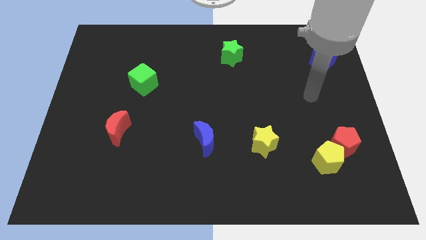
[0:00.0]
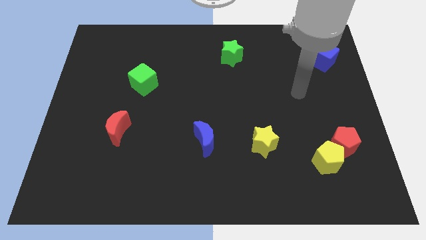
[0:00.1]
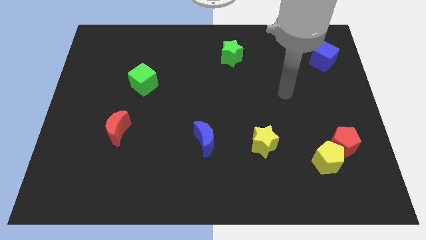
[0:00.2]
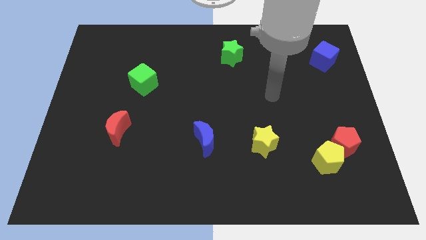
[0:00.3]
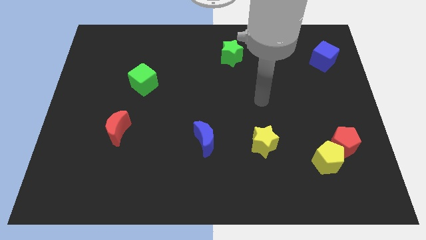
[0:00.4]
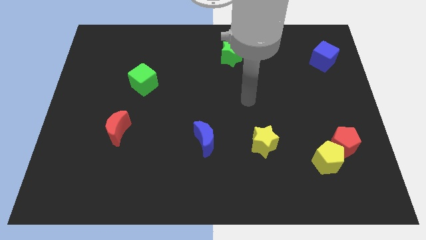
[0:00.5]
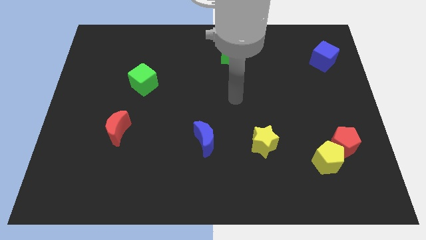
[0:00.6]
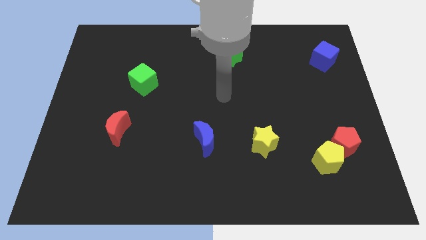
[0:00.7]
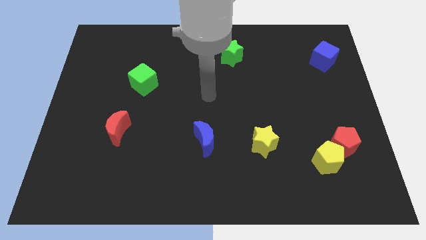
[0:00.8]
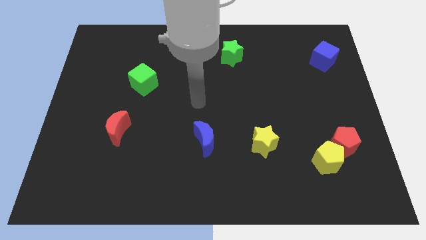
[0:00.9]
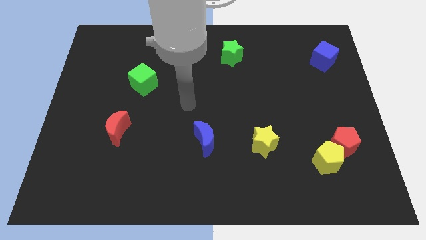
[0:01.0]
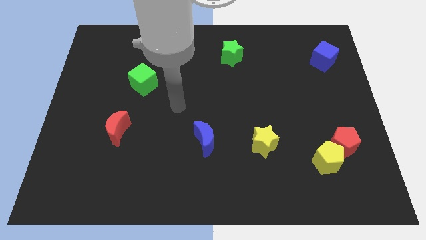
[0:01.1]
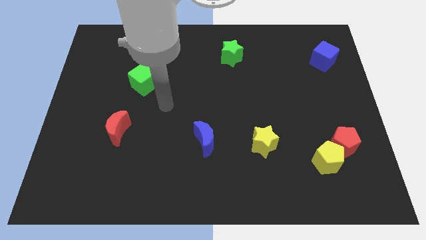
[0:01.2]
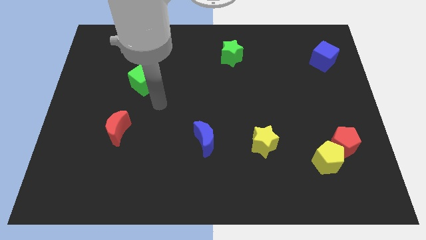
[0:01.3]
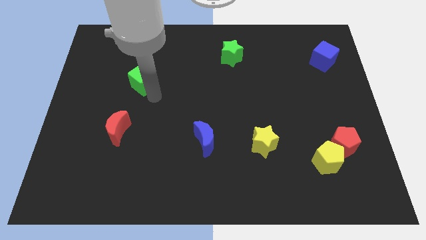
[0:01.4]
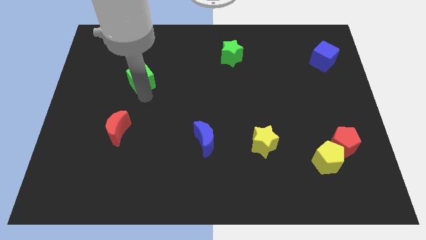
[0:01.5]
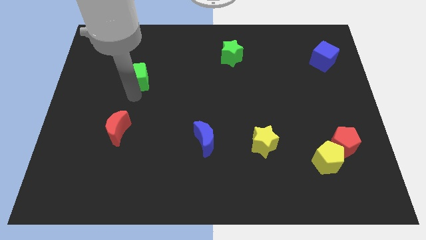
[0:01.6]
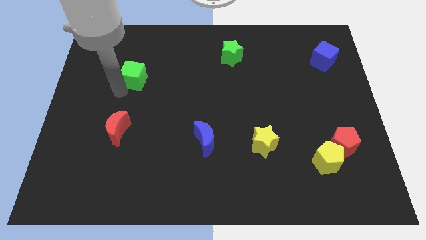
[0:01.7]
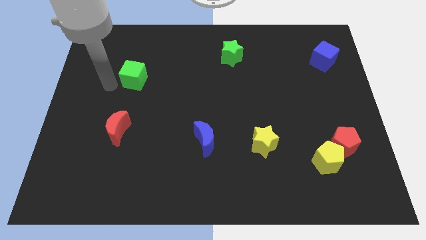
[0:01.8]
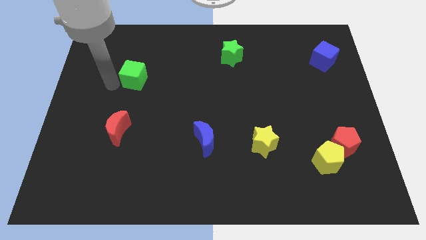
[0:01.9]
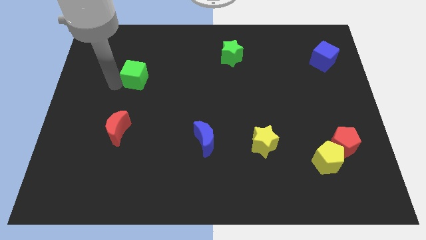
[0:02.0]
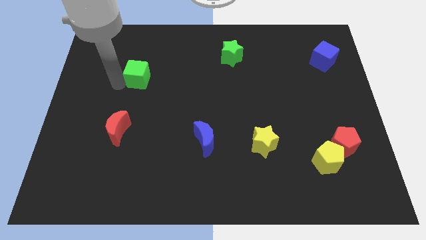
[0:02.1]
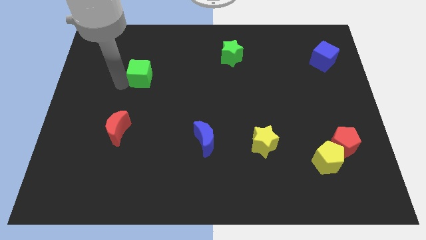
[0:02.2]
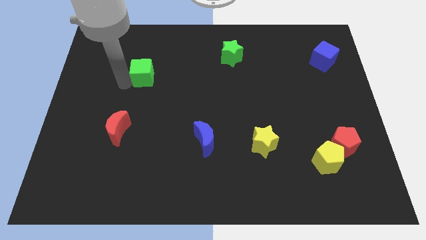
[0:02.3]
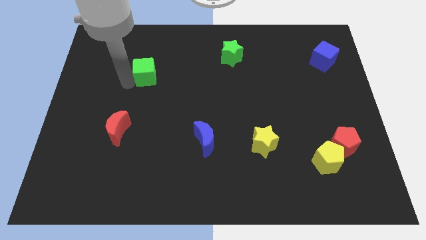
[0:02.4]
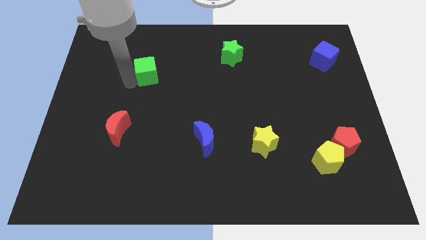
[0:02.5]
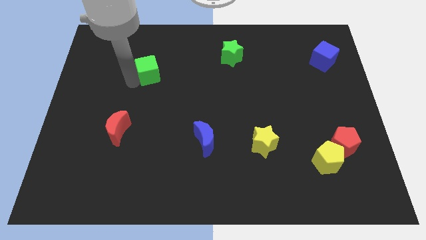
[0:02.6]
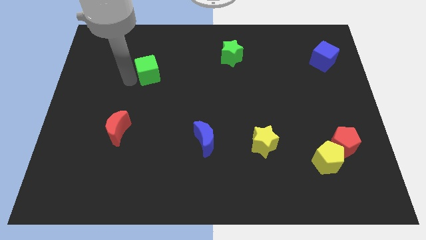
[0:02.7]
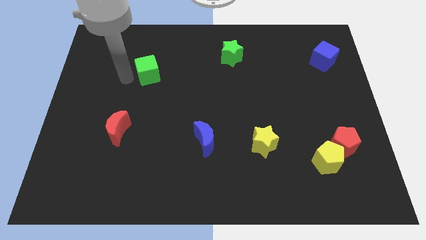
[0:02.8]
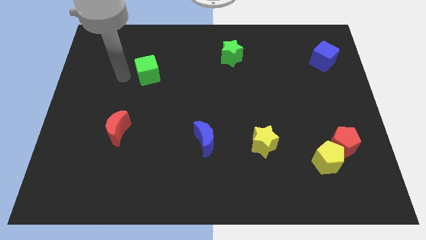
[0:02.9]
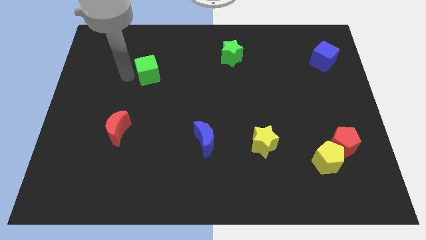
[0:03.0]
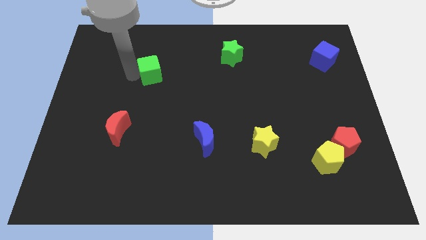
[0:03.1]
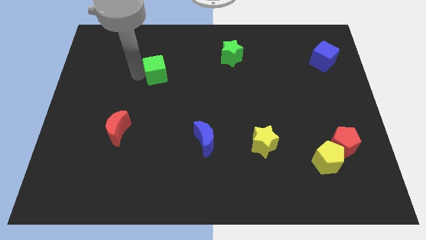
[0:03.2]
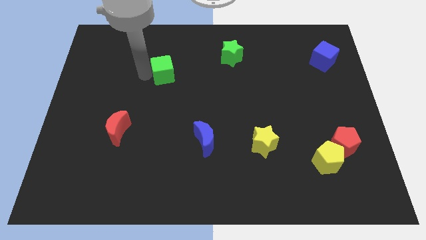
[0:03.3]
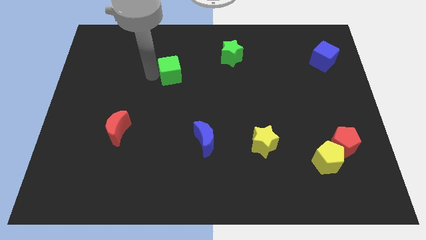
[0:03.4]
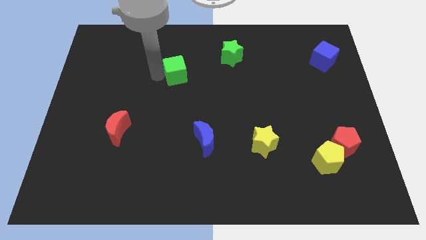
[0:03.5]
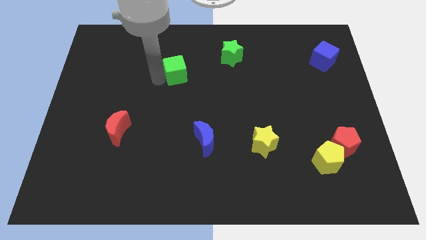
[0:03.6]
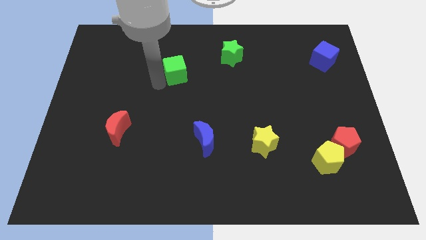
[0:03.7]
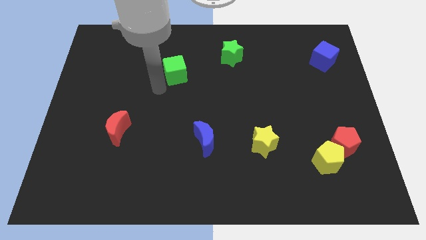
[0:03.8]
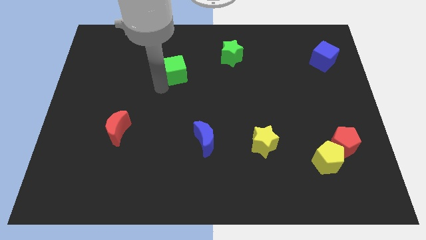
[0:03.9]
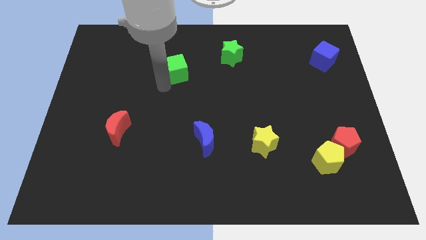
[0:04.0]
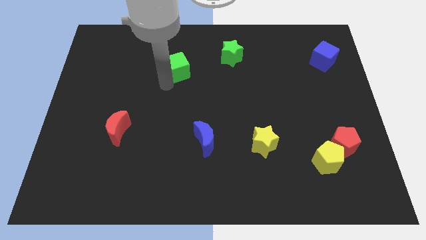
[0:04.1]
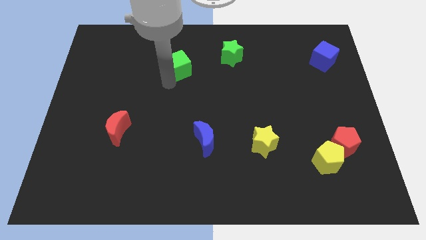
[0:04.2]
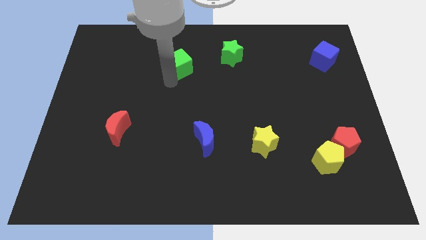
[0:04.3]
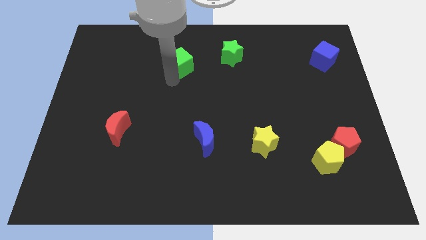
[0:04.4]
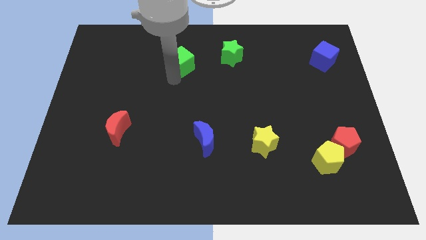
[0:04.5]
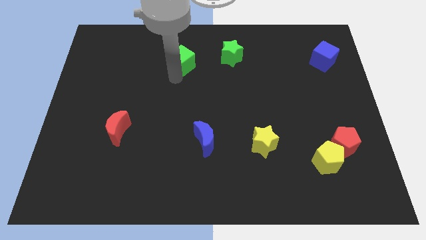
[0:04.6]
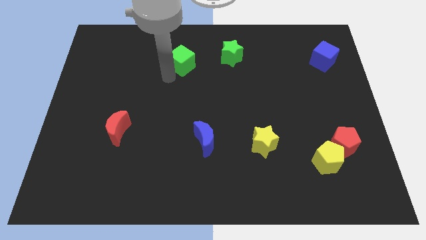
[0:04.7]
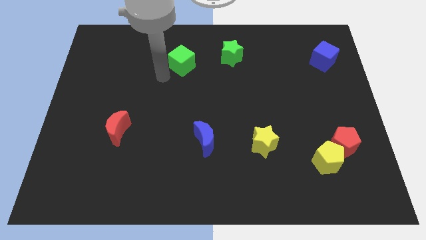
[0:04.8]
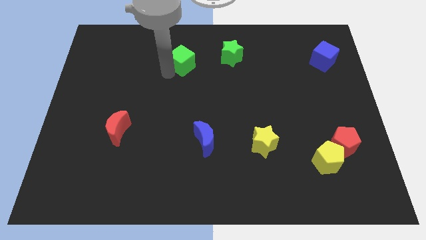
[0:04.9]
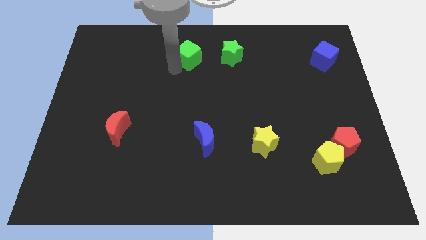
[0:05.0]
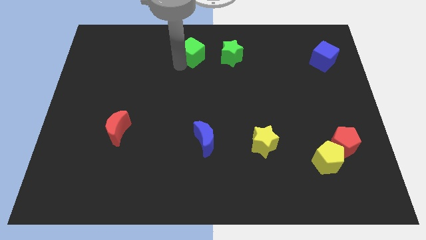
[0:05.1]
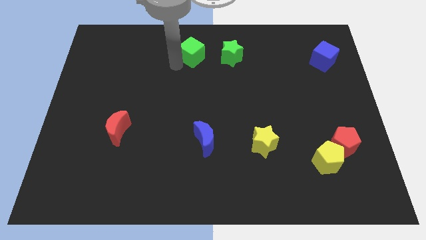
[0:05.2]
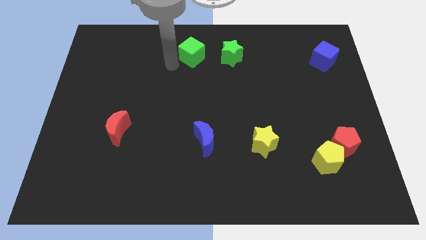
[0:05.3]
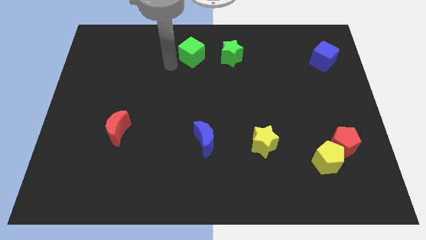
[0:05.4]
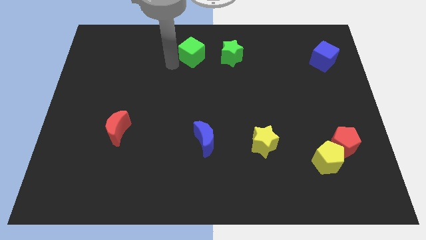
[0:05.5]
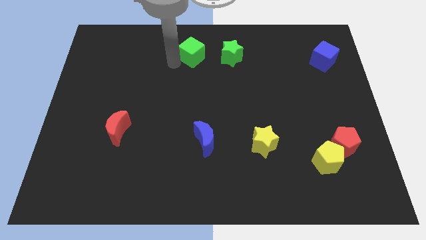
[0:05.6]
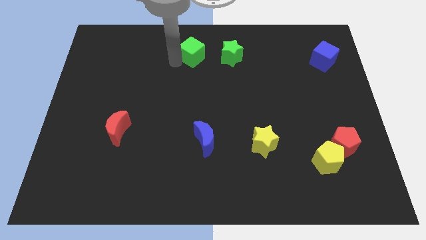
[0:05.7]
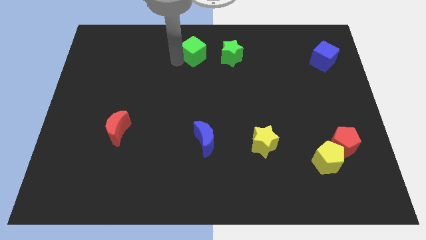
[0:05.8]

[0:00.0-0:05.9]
move the green cube to the top

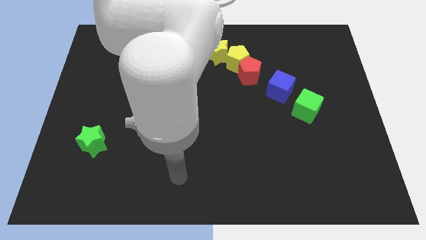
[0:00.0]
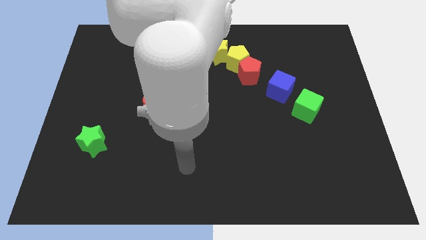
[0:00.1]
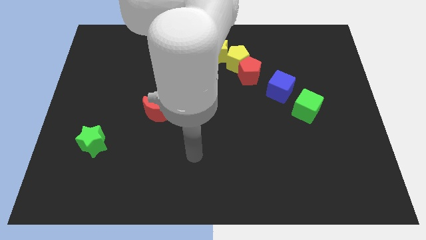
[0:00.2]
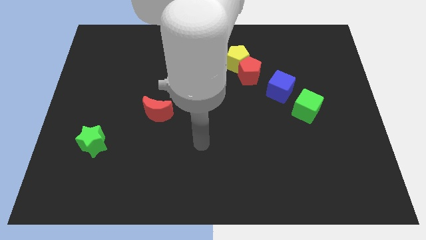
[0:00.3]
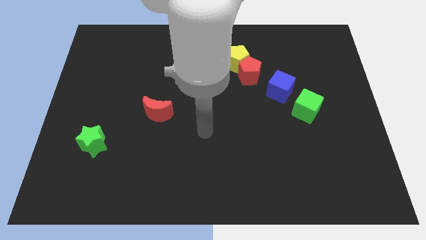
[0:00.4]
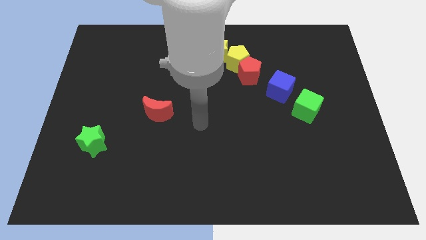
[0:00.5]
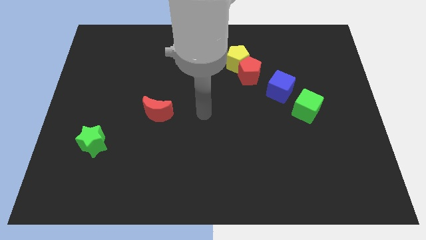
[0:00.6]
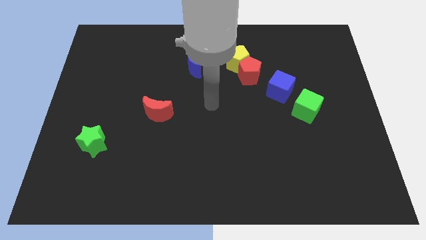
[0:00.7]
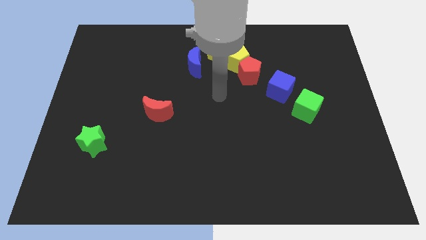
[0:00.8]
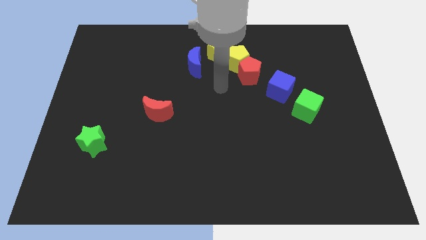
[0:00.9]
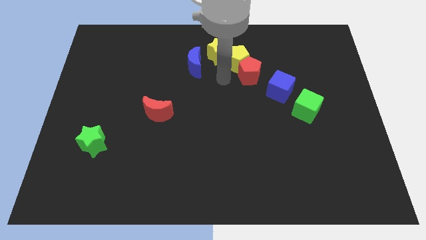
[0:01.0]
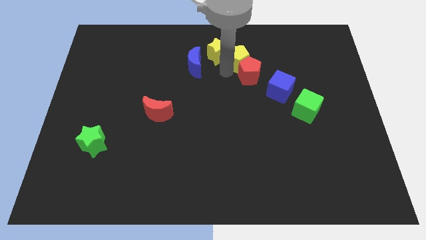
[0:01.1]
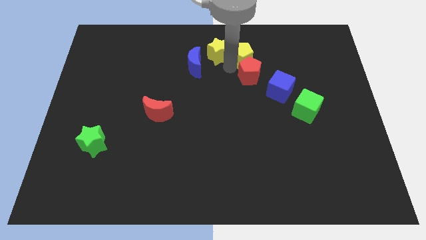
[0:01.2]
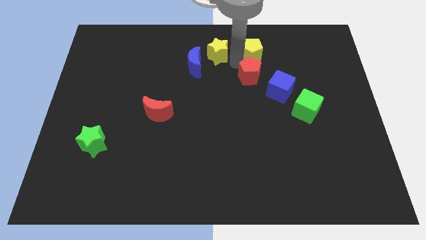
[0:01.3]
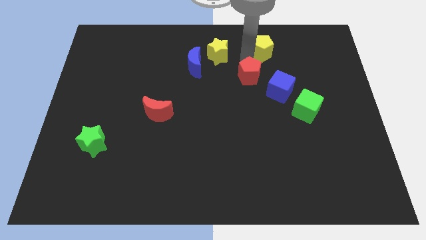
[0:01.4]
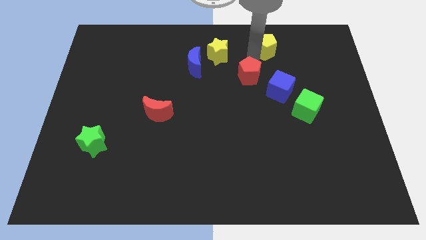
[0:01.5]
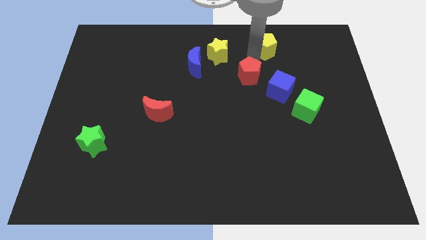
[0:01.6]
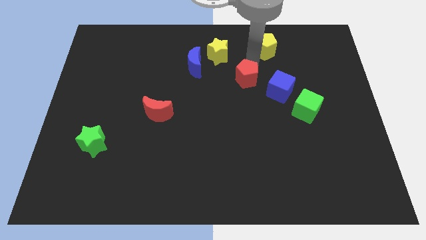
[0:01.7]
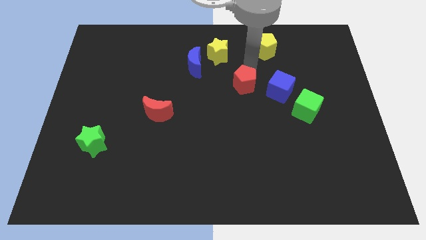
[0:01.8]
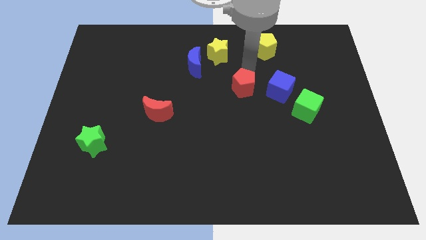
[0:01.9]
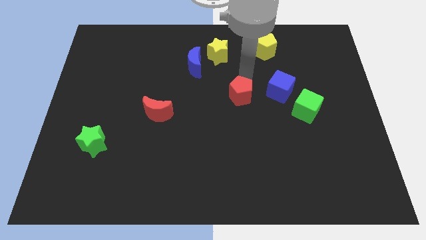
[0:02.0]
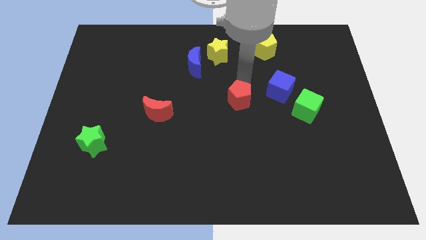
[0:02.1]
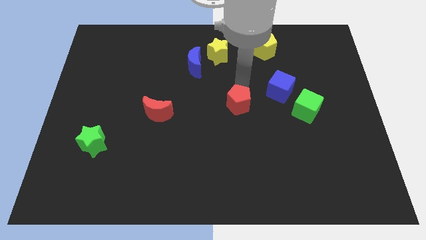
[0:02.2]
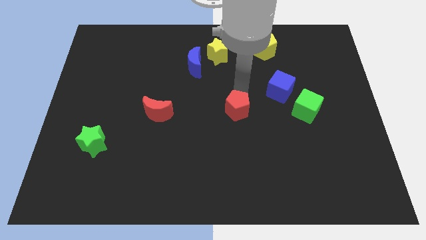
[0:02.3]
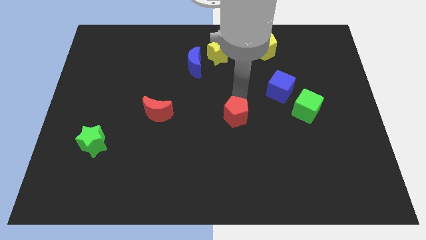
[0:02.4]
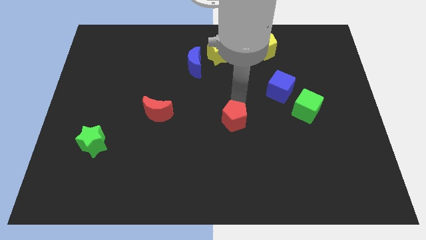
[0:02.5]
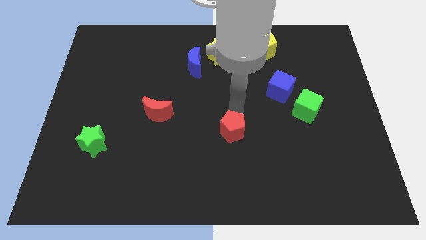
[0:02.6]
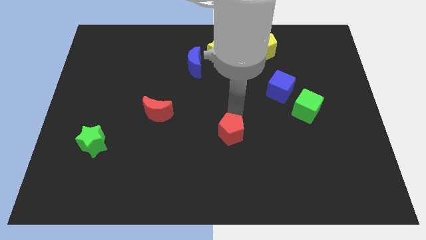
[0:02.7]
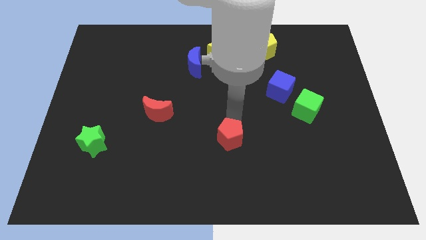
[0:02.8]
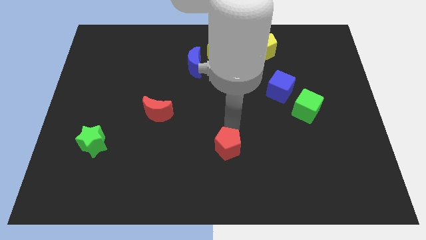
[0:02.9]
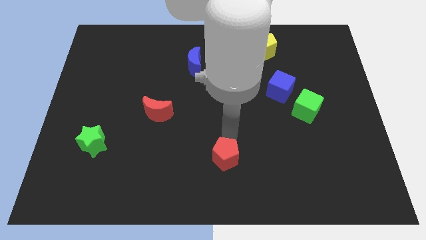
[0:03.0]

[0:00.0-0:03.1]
put the red pentagon to the bottom side
